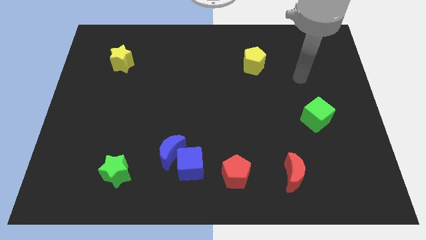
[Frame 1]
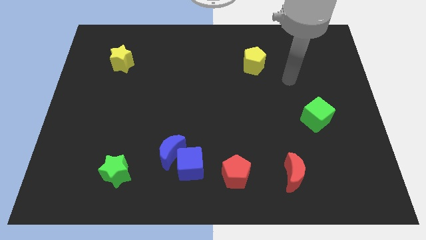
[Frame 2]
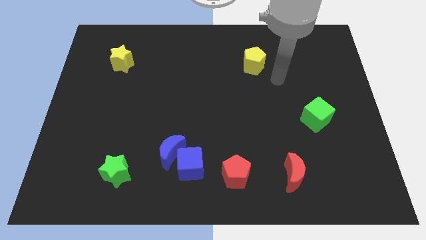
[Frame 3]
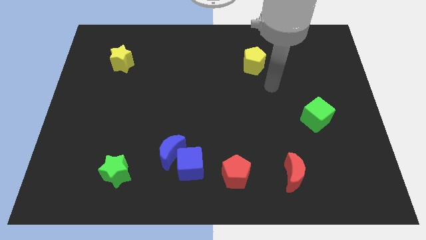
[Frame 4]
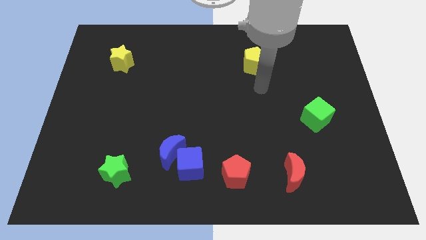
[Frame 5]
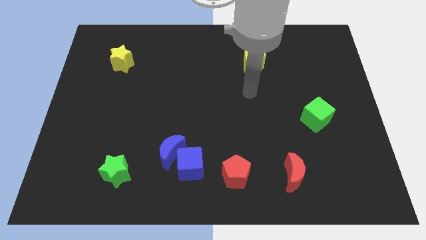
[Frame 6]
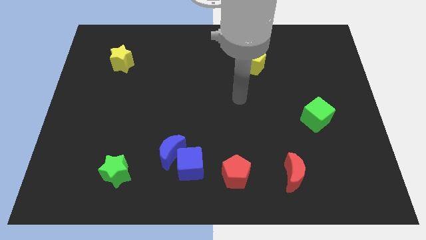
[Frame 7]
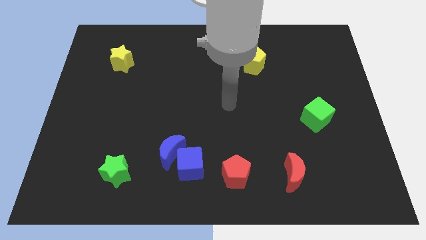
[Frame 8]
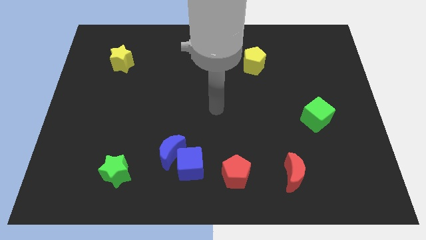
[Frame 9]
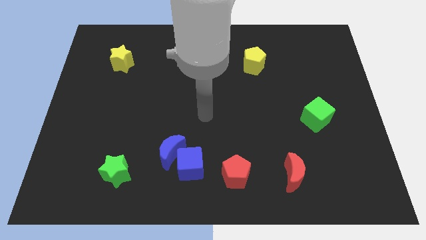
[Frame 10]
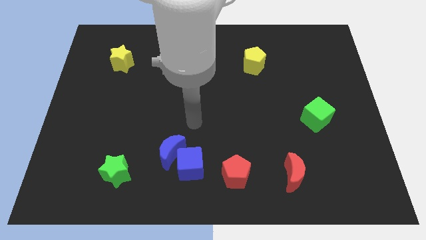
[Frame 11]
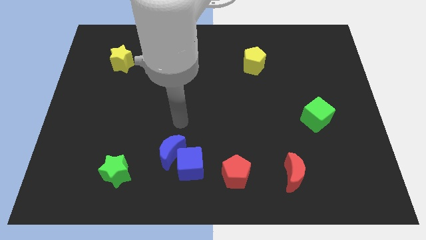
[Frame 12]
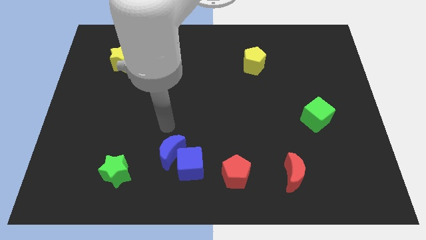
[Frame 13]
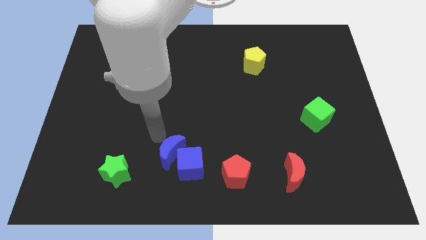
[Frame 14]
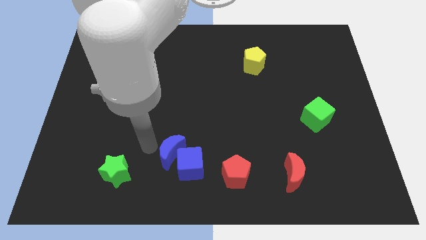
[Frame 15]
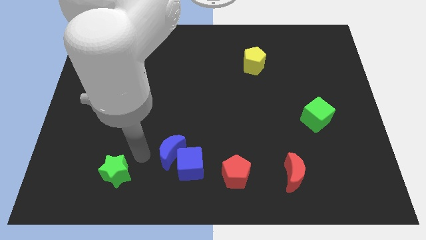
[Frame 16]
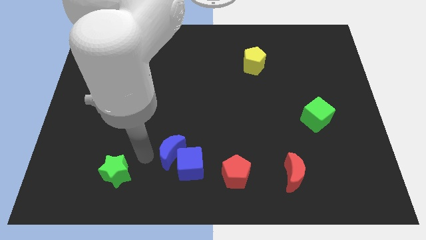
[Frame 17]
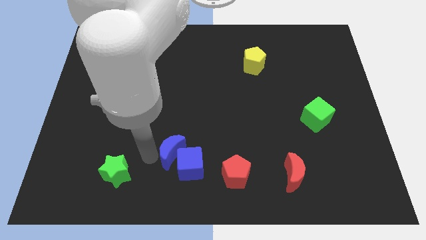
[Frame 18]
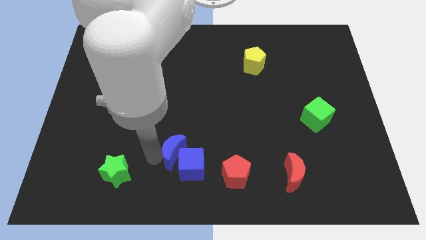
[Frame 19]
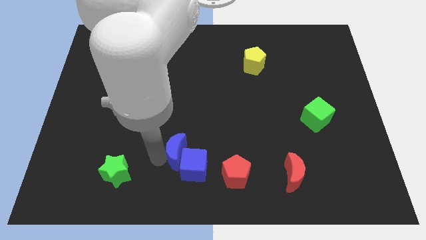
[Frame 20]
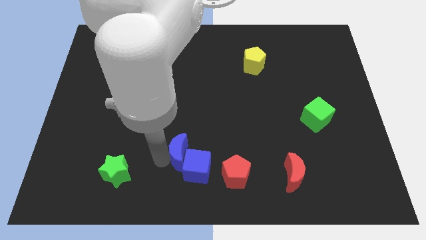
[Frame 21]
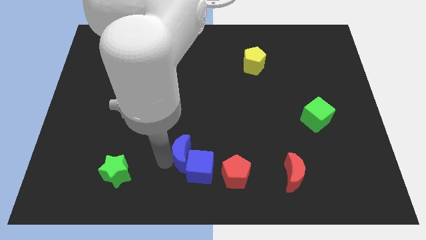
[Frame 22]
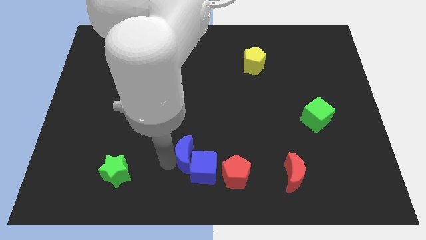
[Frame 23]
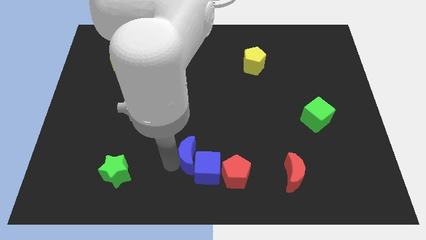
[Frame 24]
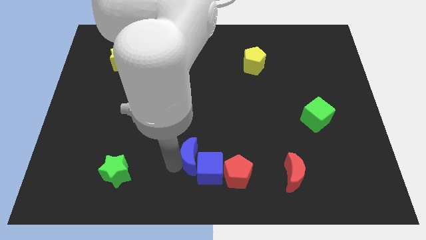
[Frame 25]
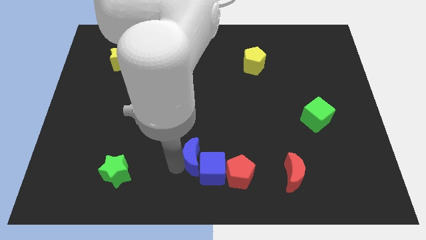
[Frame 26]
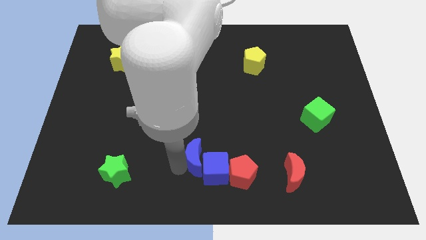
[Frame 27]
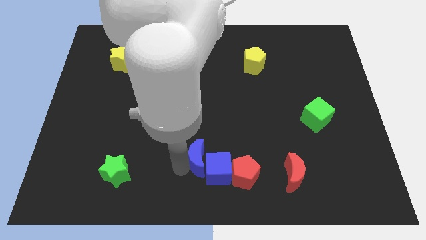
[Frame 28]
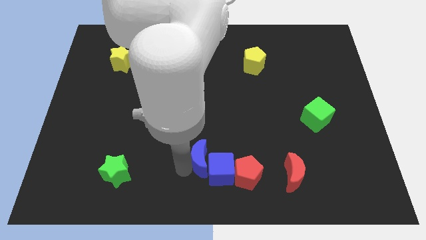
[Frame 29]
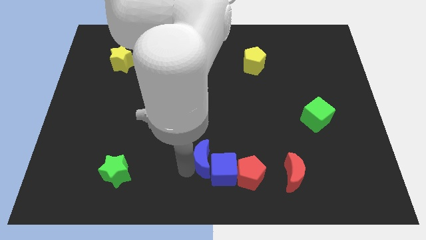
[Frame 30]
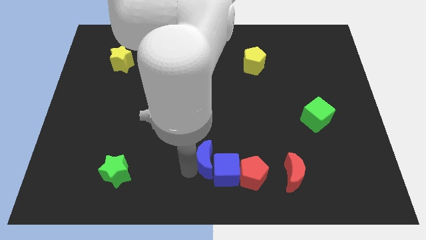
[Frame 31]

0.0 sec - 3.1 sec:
slightly move the blue moon right

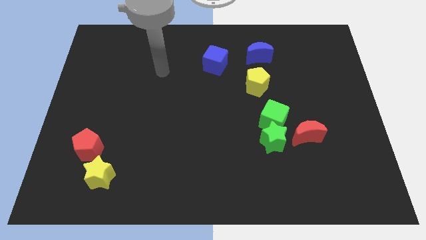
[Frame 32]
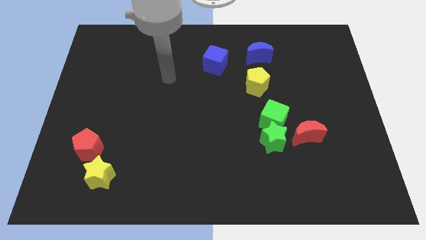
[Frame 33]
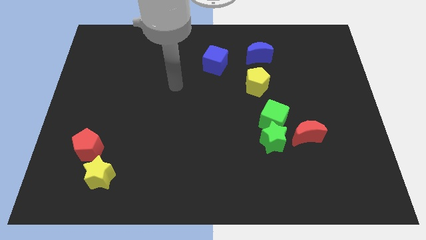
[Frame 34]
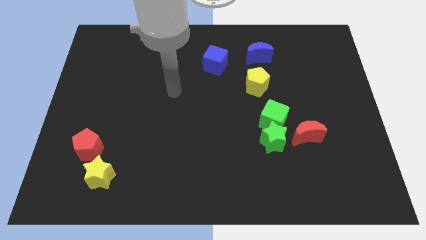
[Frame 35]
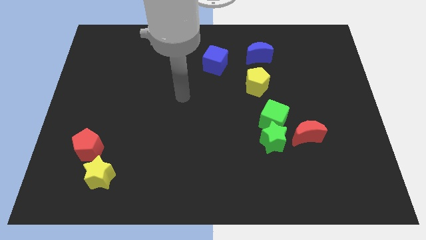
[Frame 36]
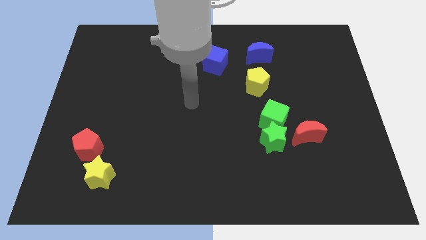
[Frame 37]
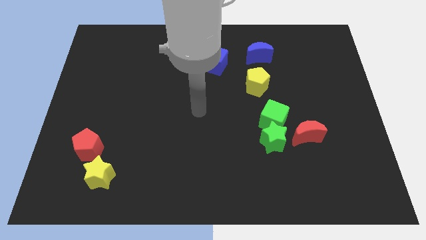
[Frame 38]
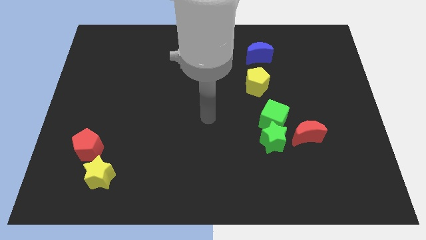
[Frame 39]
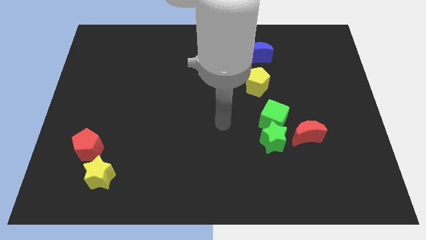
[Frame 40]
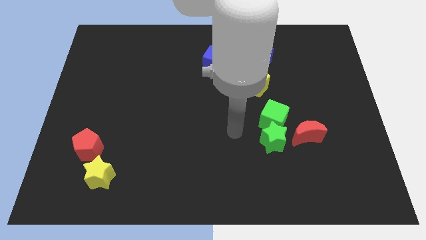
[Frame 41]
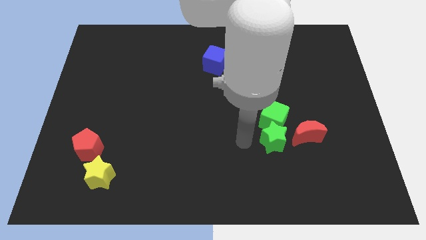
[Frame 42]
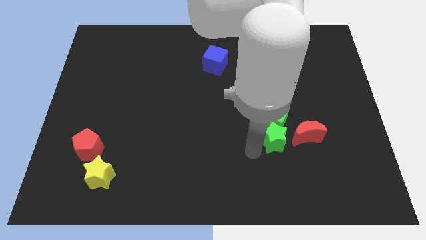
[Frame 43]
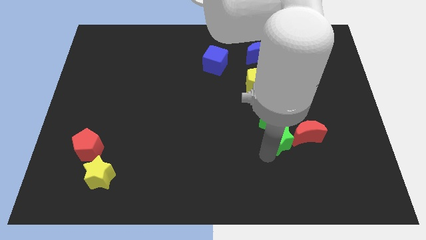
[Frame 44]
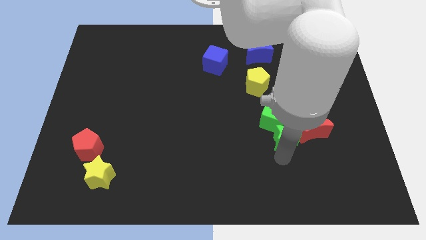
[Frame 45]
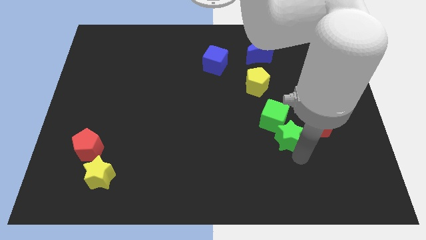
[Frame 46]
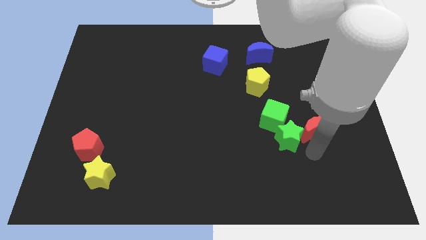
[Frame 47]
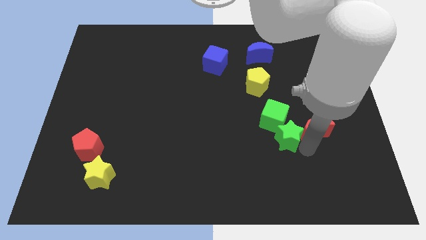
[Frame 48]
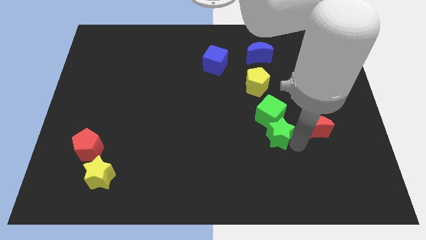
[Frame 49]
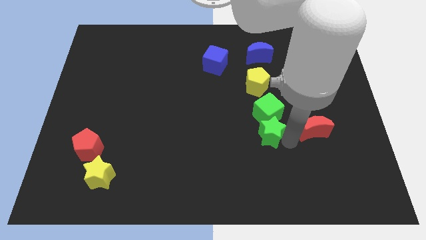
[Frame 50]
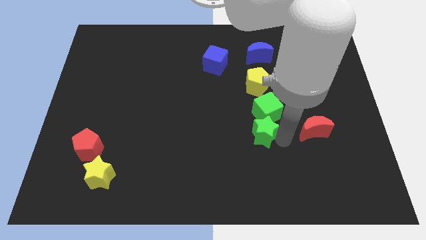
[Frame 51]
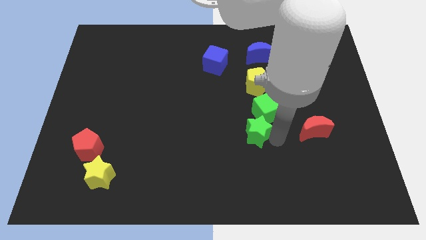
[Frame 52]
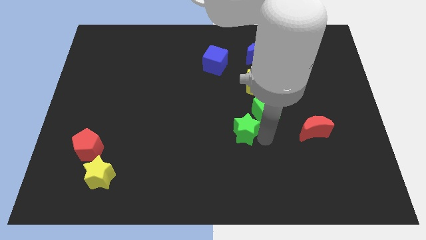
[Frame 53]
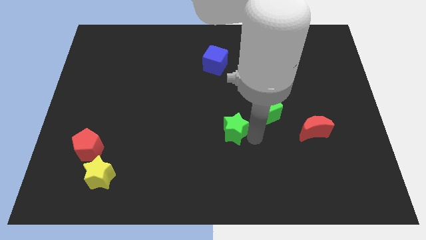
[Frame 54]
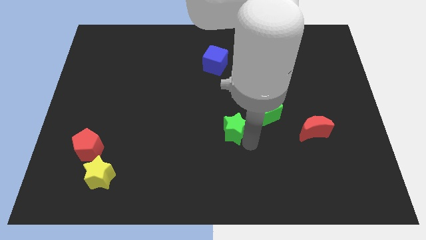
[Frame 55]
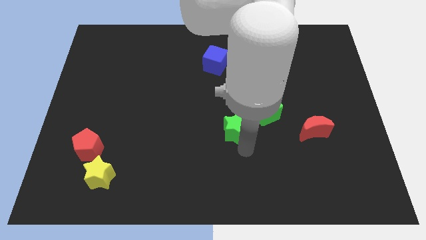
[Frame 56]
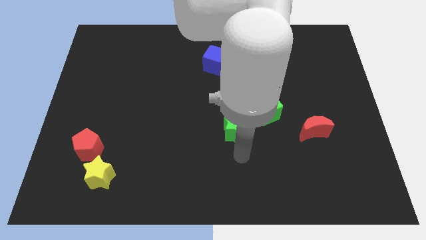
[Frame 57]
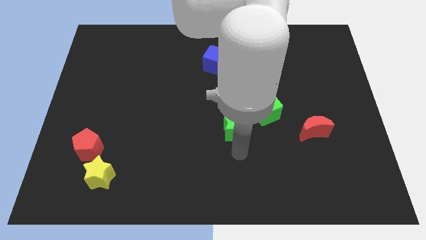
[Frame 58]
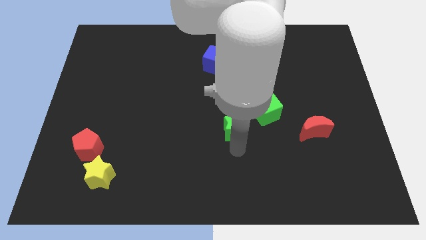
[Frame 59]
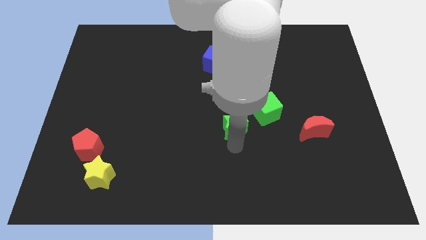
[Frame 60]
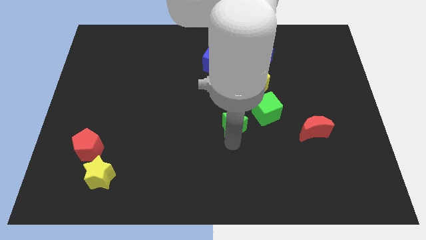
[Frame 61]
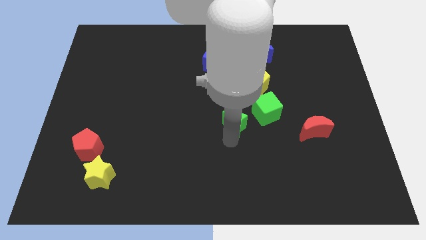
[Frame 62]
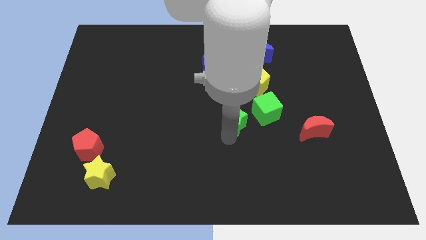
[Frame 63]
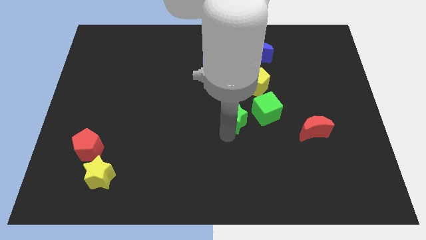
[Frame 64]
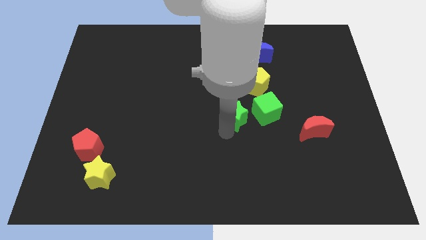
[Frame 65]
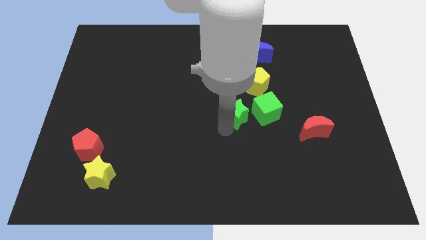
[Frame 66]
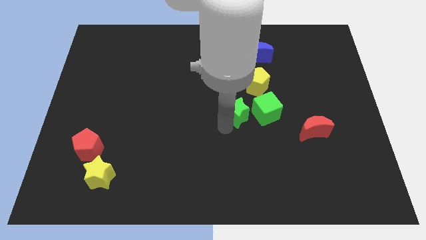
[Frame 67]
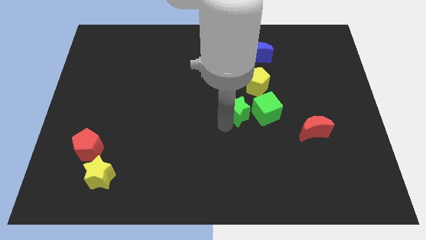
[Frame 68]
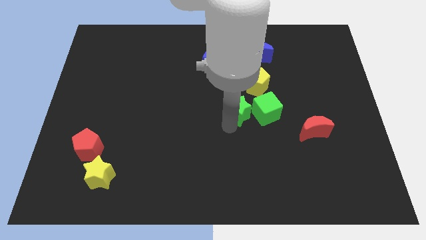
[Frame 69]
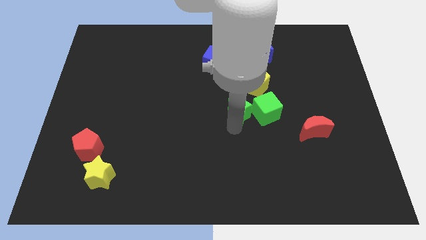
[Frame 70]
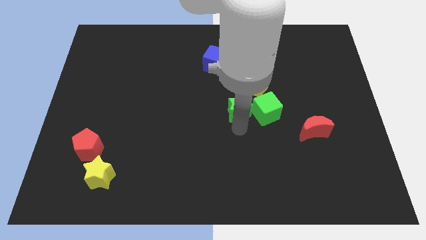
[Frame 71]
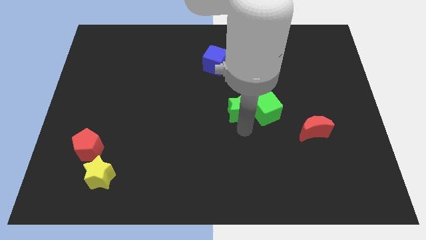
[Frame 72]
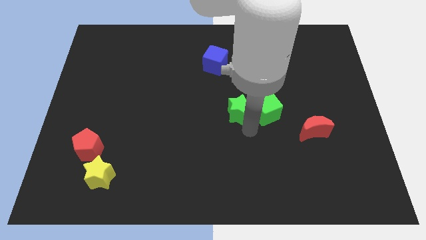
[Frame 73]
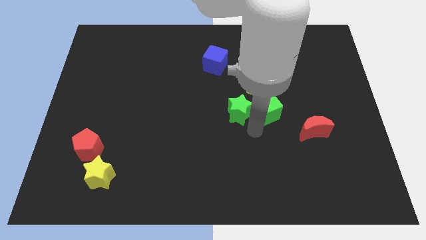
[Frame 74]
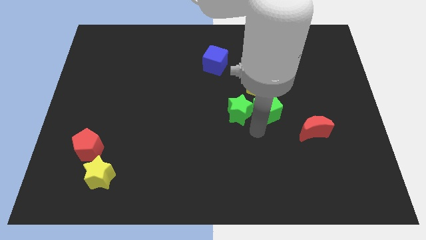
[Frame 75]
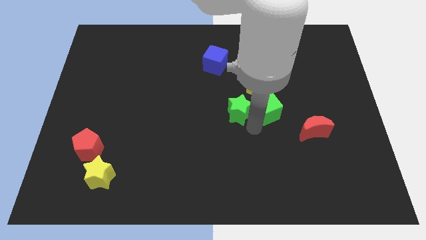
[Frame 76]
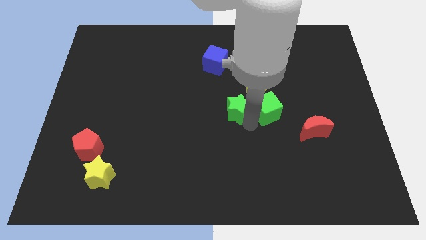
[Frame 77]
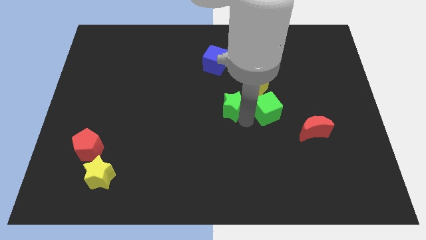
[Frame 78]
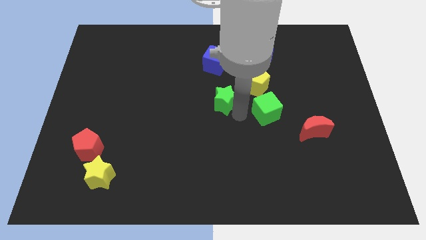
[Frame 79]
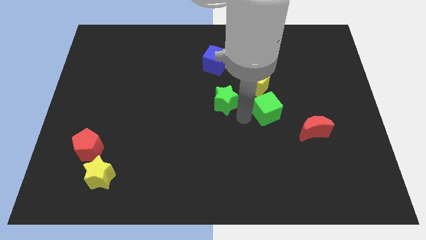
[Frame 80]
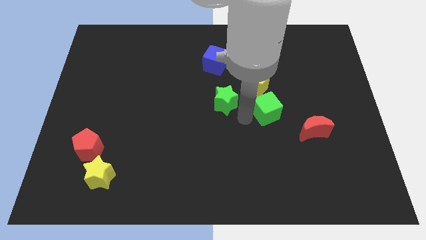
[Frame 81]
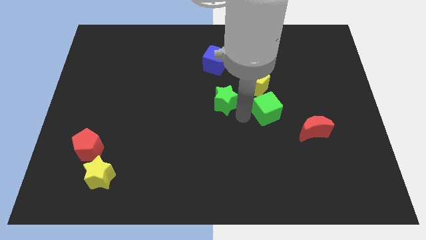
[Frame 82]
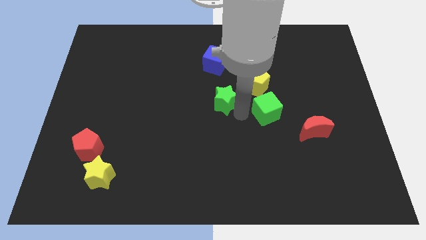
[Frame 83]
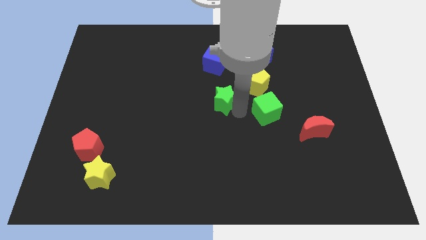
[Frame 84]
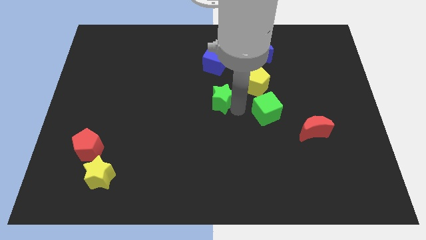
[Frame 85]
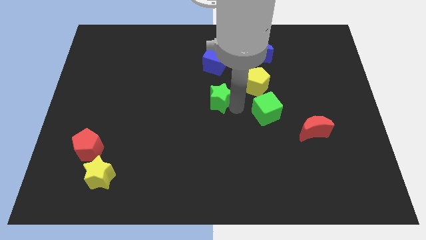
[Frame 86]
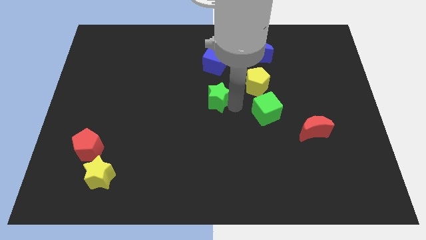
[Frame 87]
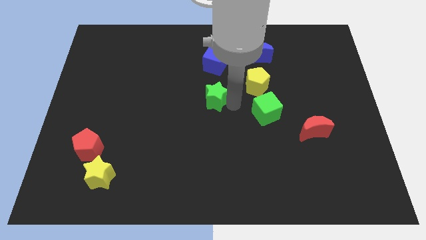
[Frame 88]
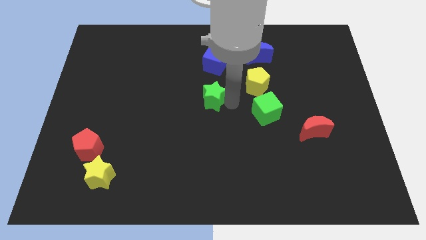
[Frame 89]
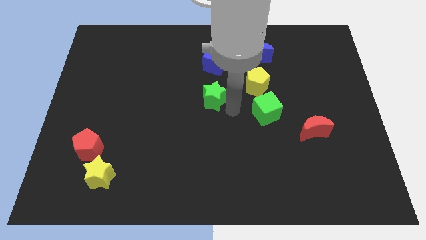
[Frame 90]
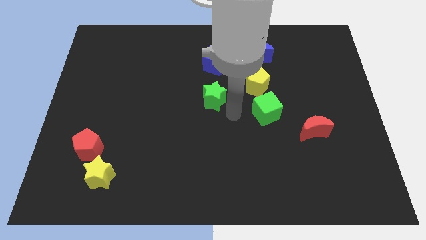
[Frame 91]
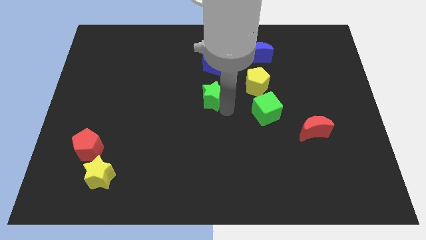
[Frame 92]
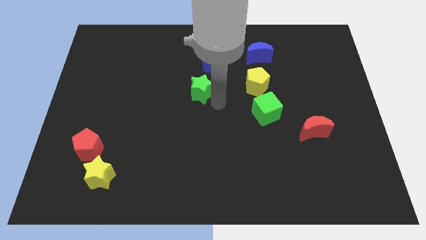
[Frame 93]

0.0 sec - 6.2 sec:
move the green star upwards and left
